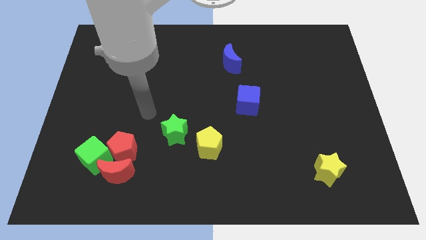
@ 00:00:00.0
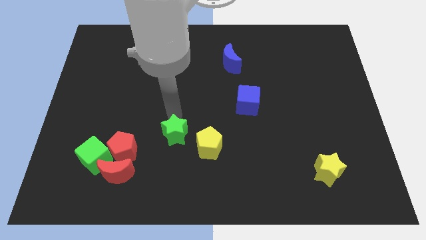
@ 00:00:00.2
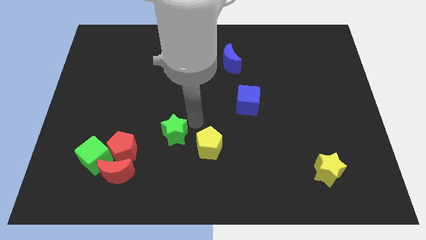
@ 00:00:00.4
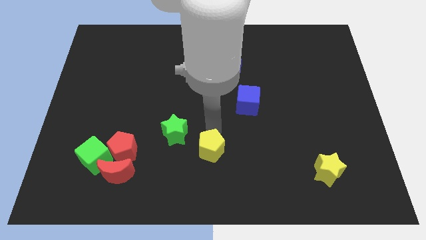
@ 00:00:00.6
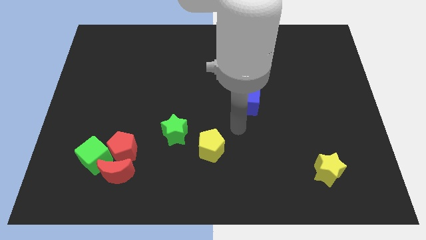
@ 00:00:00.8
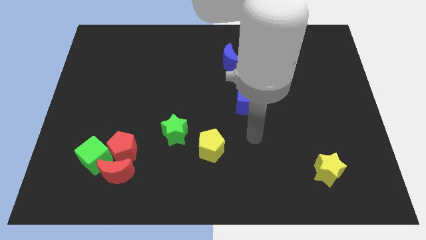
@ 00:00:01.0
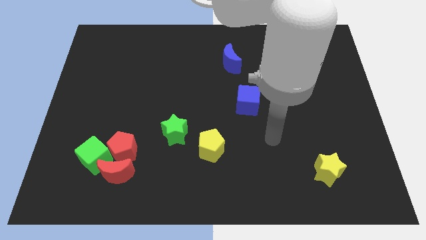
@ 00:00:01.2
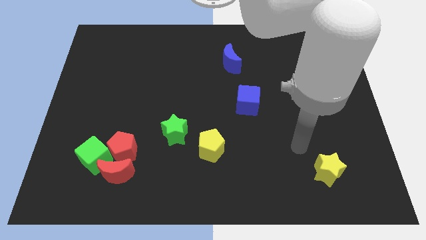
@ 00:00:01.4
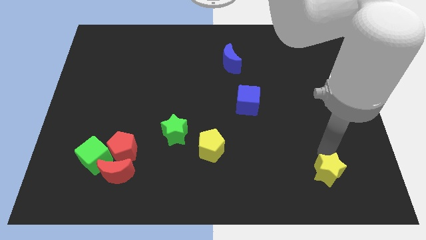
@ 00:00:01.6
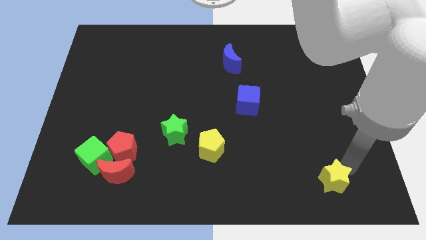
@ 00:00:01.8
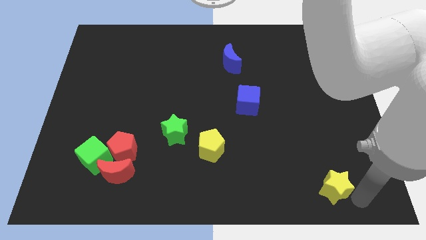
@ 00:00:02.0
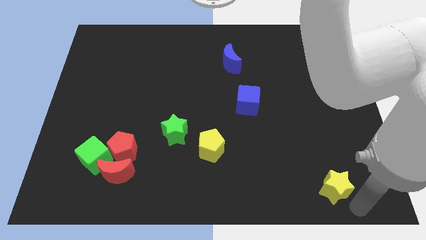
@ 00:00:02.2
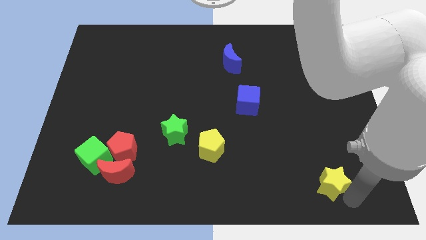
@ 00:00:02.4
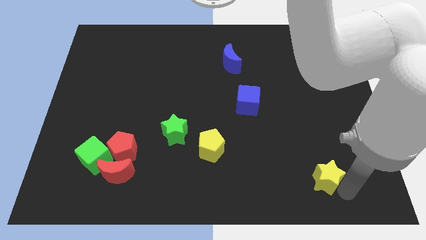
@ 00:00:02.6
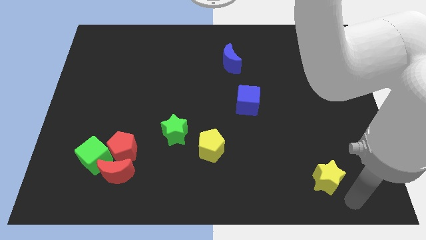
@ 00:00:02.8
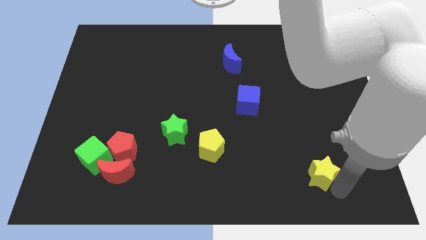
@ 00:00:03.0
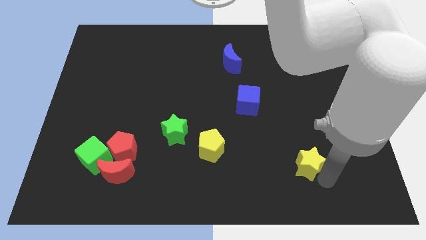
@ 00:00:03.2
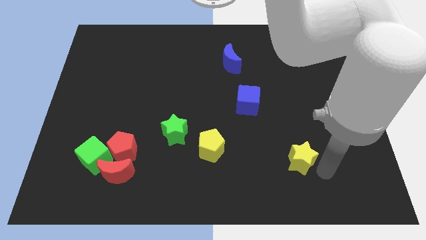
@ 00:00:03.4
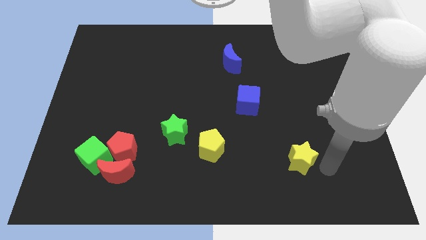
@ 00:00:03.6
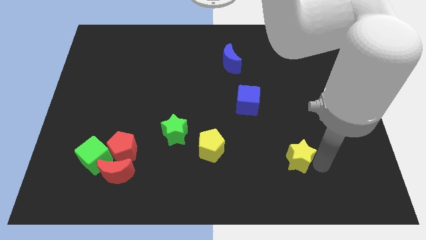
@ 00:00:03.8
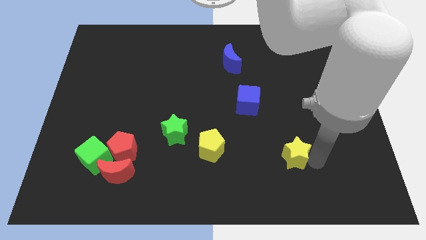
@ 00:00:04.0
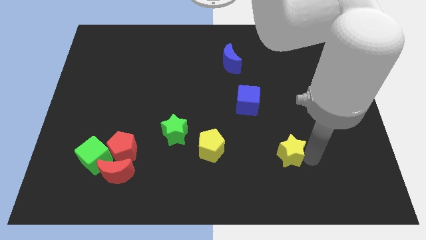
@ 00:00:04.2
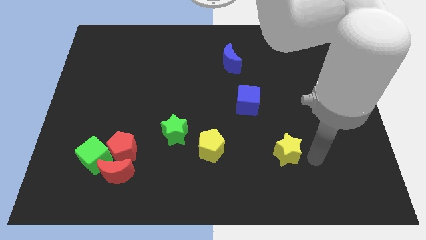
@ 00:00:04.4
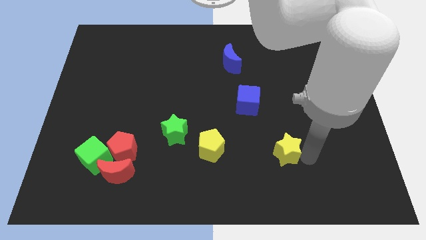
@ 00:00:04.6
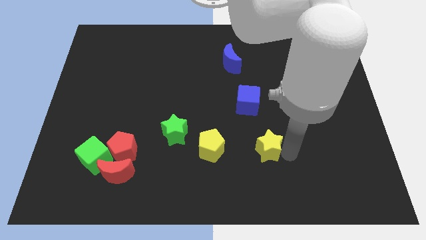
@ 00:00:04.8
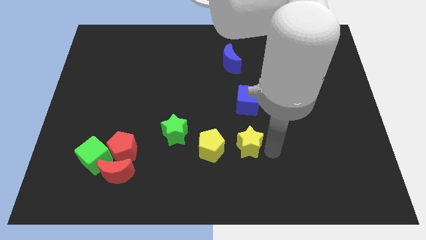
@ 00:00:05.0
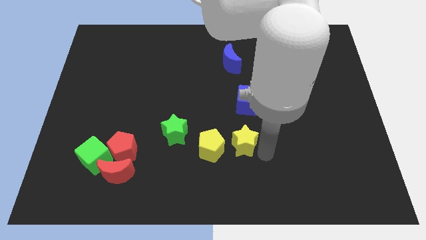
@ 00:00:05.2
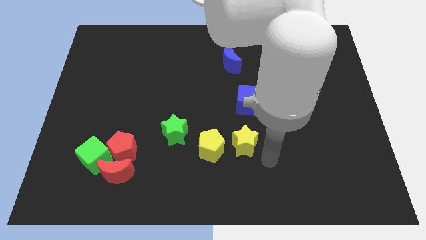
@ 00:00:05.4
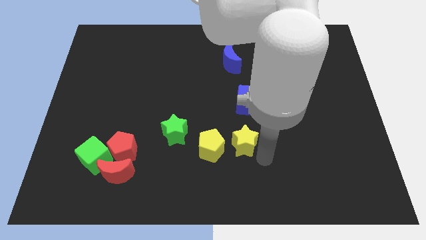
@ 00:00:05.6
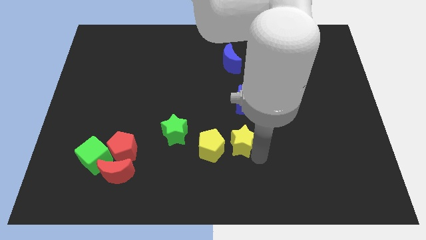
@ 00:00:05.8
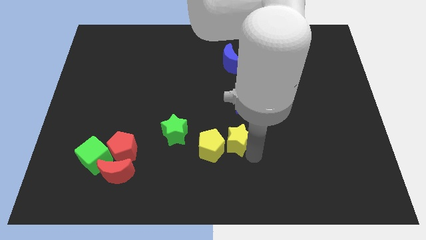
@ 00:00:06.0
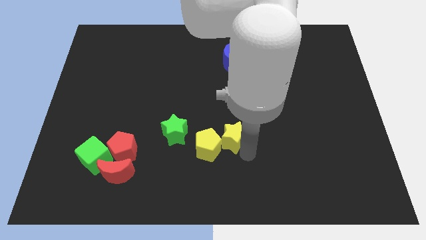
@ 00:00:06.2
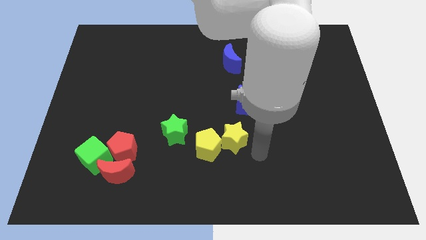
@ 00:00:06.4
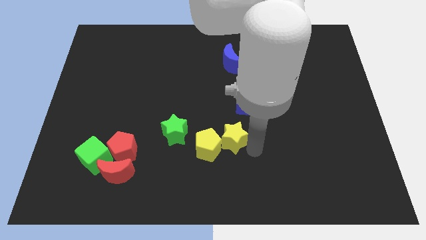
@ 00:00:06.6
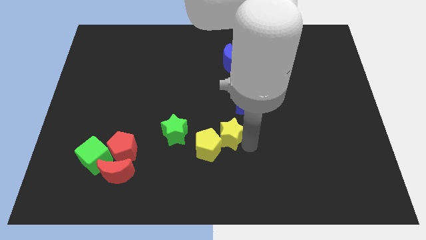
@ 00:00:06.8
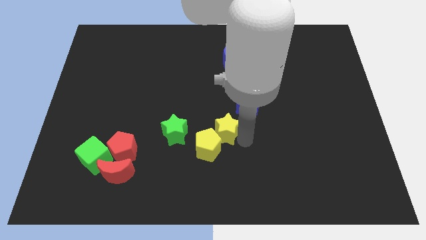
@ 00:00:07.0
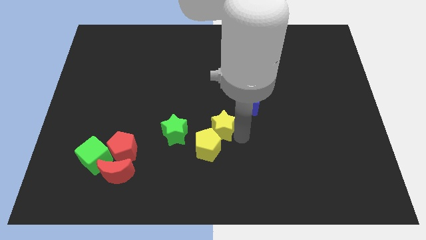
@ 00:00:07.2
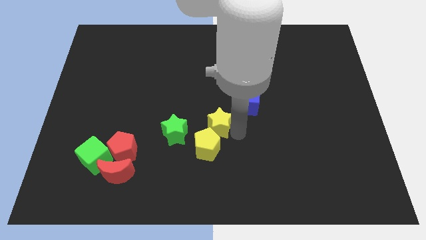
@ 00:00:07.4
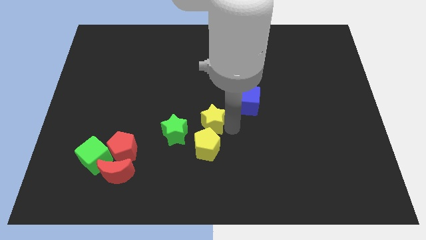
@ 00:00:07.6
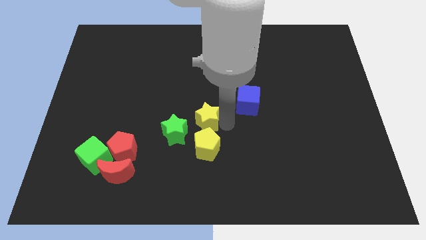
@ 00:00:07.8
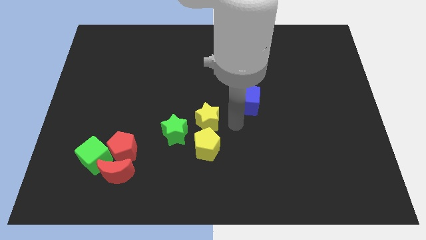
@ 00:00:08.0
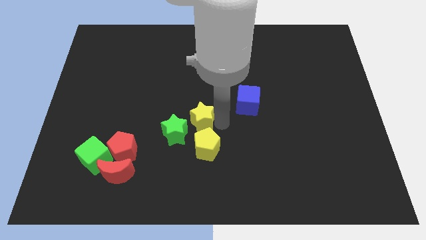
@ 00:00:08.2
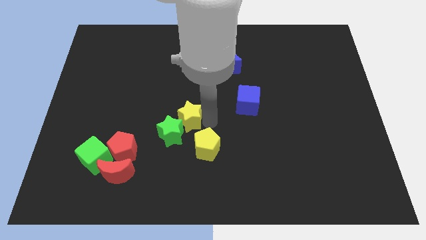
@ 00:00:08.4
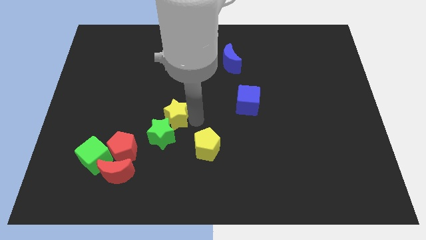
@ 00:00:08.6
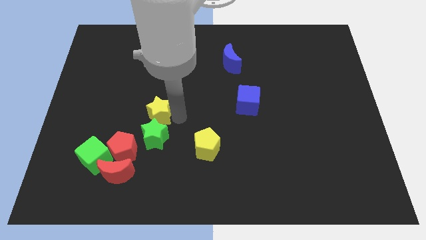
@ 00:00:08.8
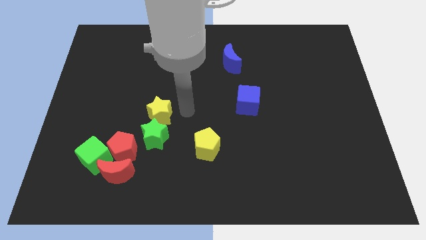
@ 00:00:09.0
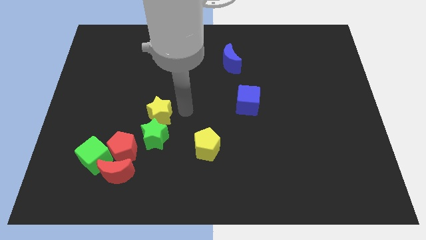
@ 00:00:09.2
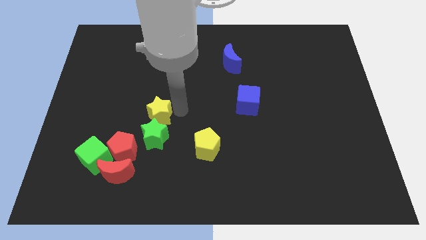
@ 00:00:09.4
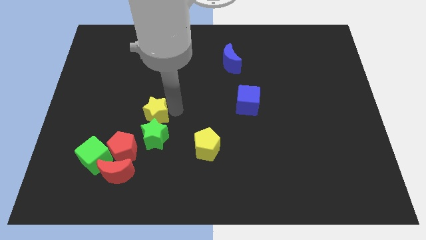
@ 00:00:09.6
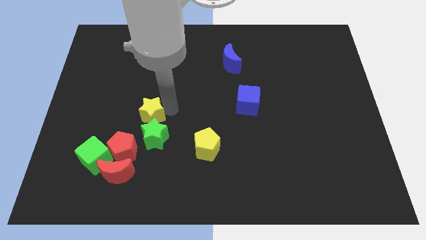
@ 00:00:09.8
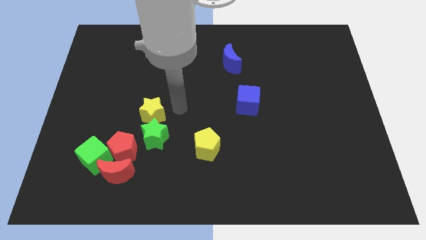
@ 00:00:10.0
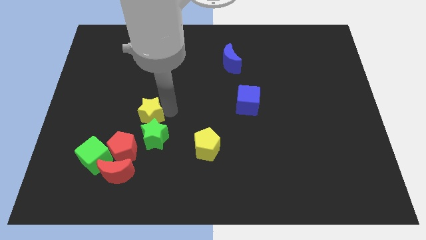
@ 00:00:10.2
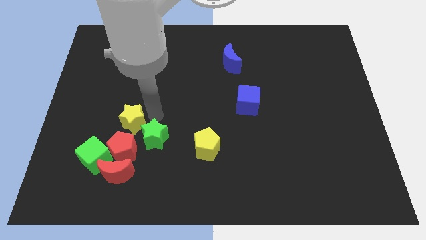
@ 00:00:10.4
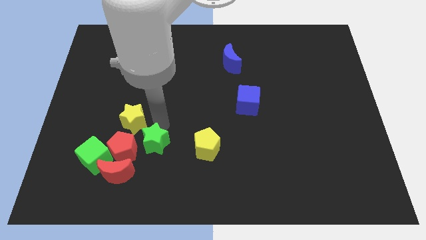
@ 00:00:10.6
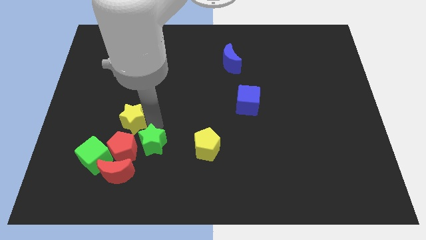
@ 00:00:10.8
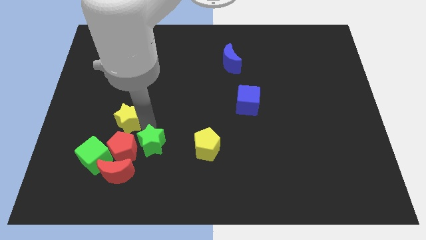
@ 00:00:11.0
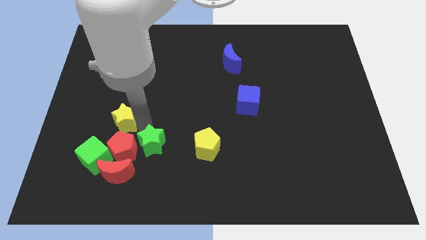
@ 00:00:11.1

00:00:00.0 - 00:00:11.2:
move the yellow star to the top side of the green cube

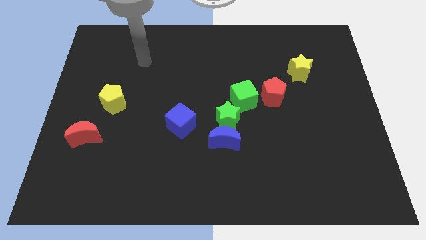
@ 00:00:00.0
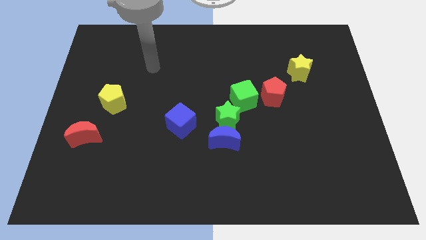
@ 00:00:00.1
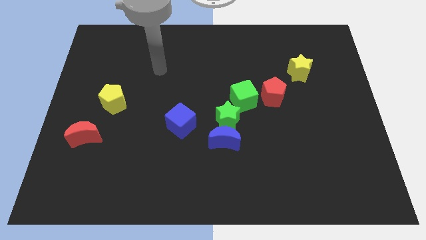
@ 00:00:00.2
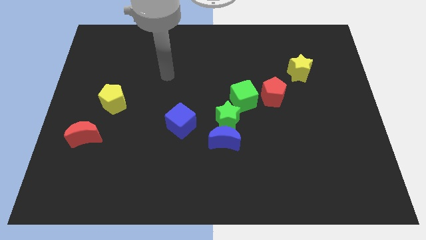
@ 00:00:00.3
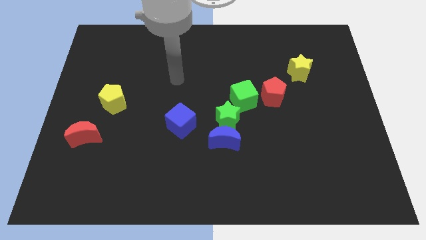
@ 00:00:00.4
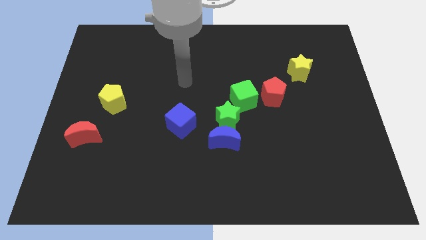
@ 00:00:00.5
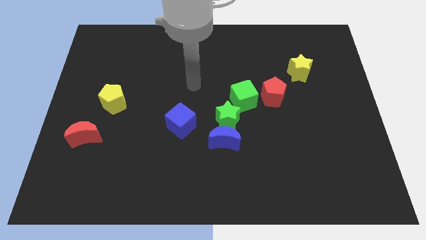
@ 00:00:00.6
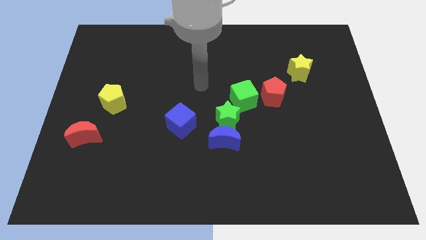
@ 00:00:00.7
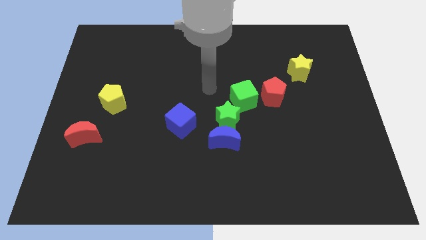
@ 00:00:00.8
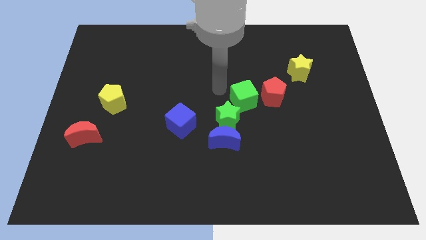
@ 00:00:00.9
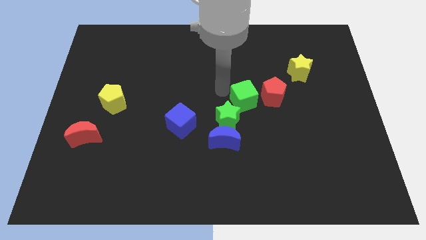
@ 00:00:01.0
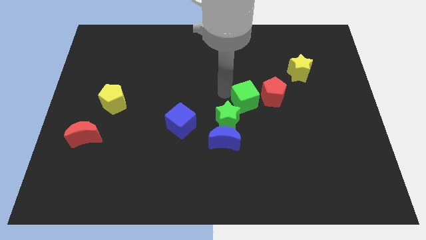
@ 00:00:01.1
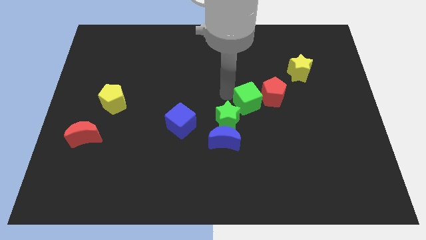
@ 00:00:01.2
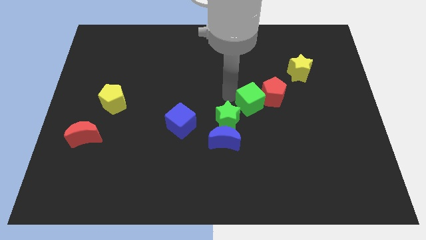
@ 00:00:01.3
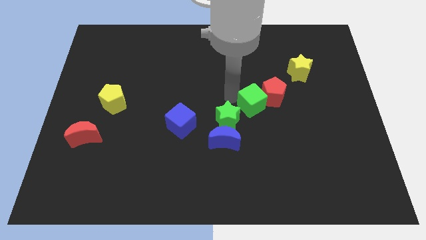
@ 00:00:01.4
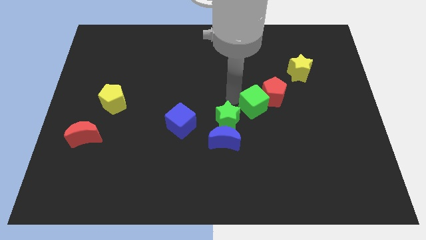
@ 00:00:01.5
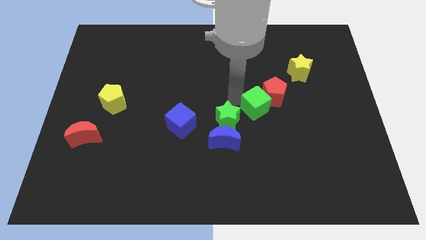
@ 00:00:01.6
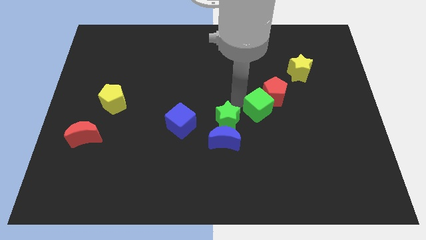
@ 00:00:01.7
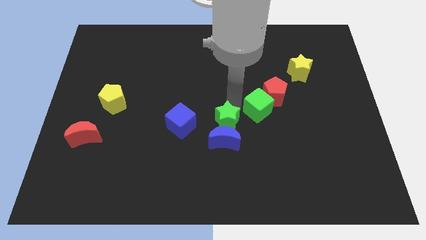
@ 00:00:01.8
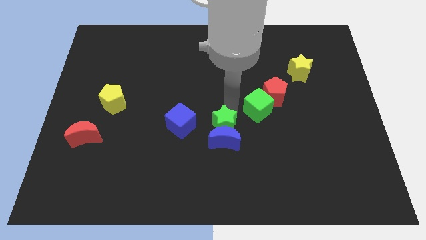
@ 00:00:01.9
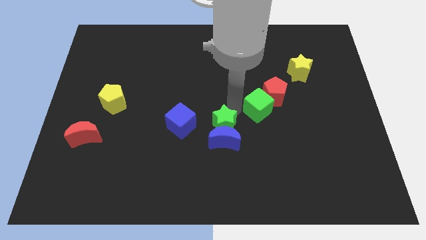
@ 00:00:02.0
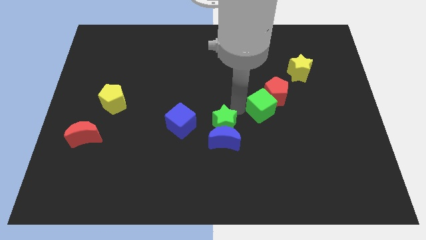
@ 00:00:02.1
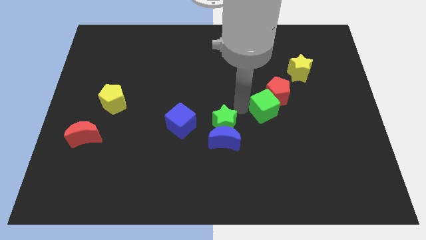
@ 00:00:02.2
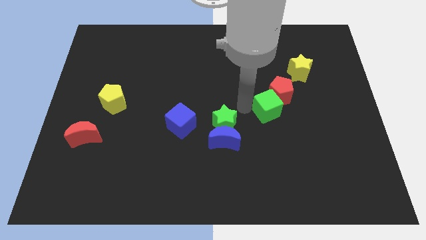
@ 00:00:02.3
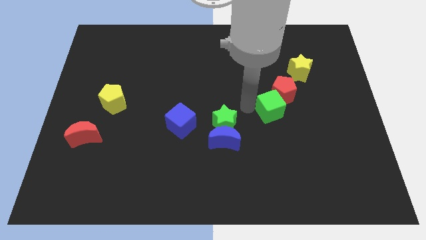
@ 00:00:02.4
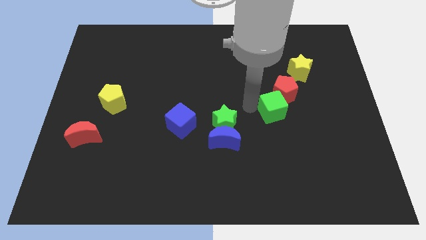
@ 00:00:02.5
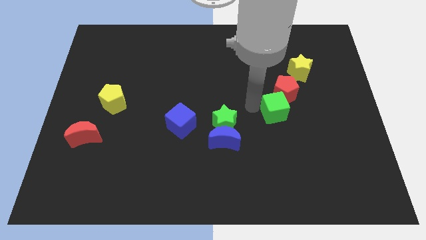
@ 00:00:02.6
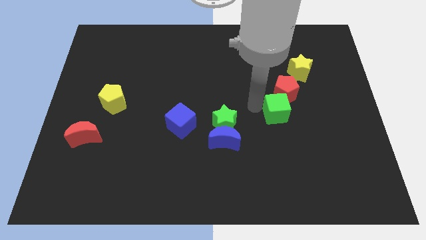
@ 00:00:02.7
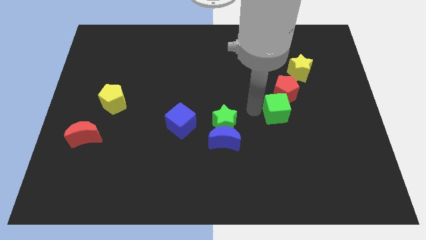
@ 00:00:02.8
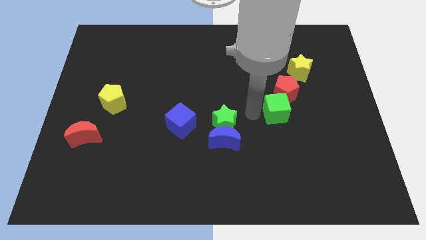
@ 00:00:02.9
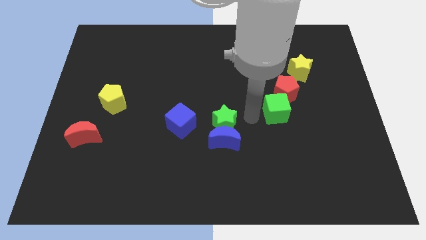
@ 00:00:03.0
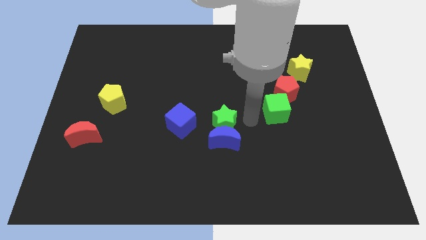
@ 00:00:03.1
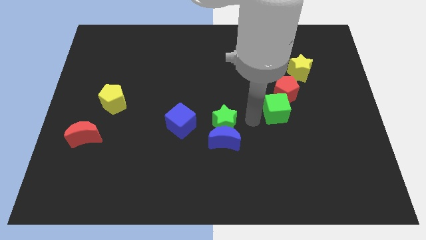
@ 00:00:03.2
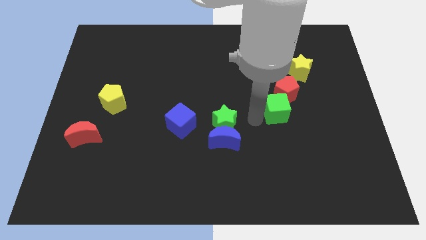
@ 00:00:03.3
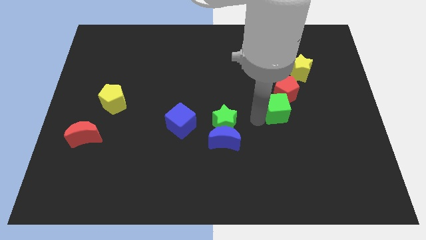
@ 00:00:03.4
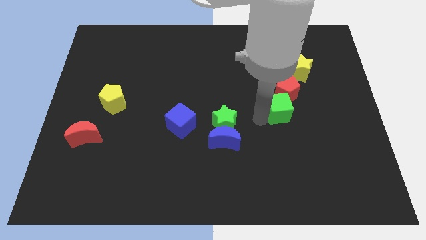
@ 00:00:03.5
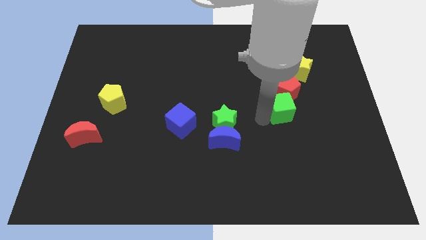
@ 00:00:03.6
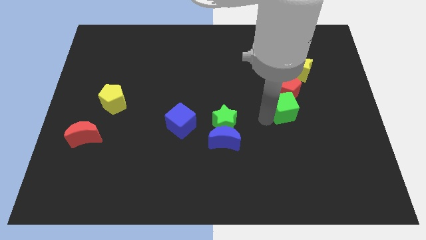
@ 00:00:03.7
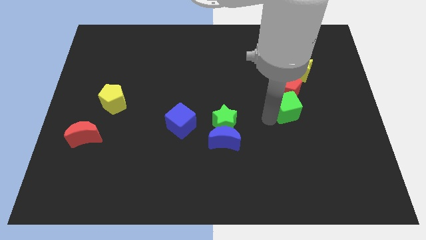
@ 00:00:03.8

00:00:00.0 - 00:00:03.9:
push the green cube to the bottom of the yellow star
